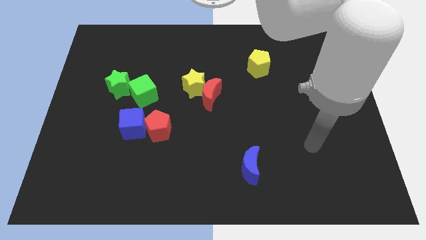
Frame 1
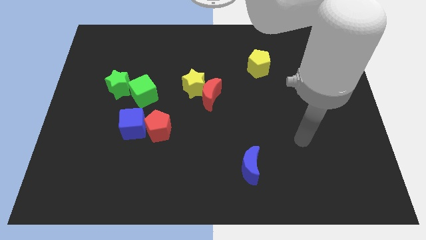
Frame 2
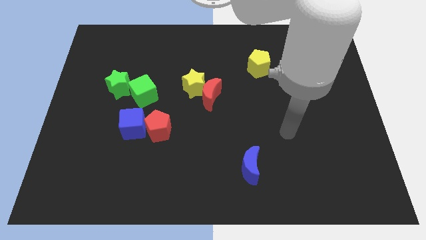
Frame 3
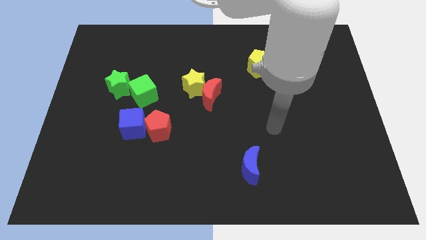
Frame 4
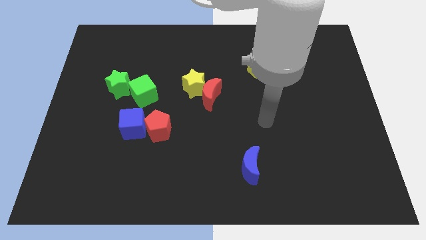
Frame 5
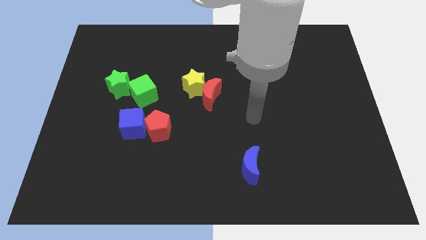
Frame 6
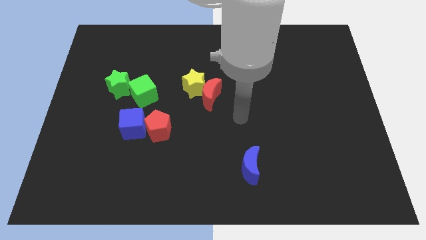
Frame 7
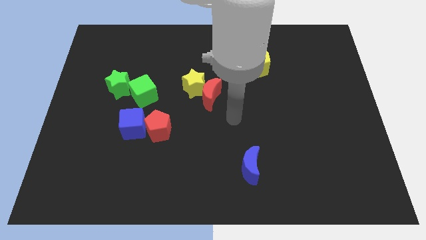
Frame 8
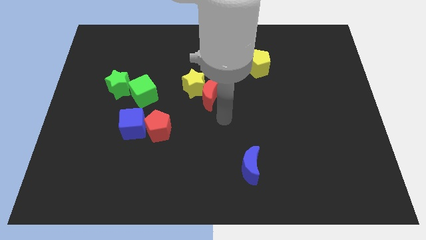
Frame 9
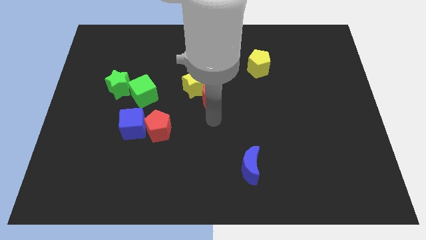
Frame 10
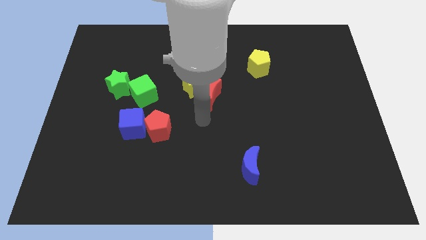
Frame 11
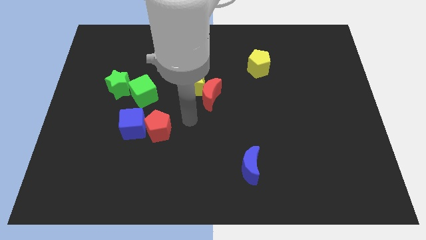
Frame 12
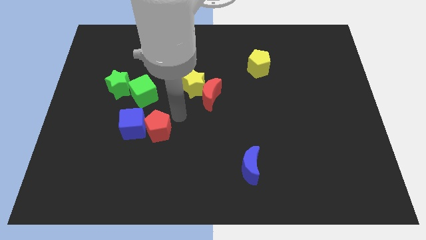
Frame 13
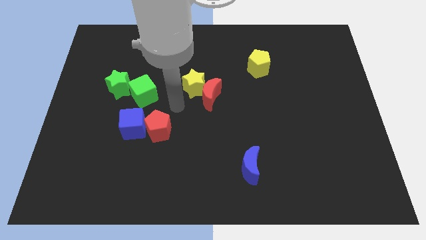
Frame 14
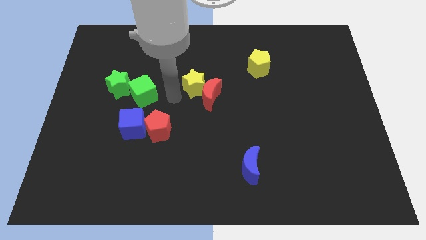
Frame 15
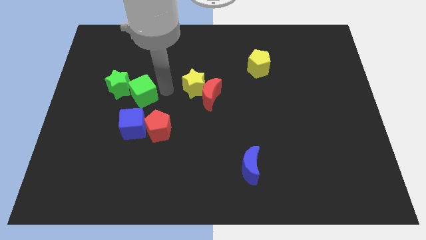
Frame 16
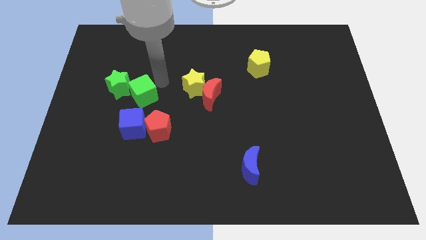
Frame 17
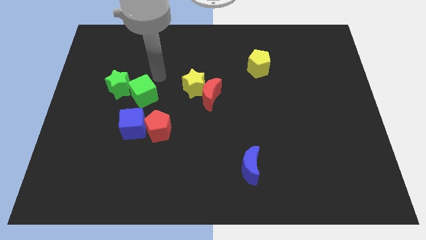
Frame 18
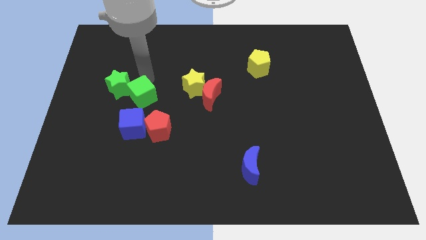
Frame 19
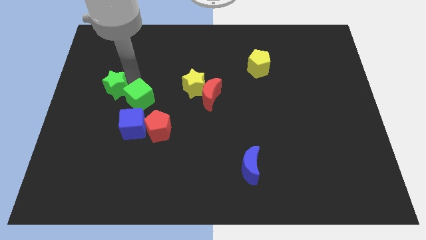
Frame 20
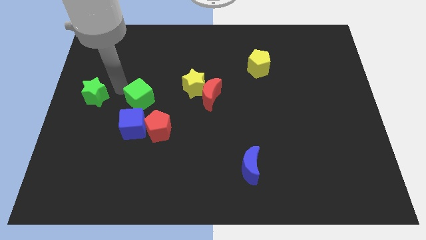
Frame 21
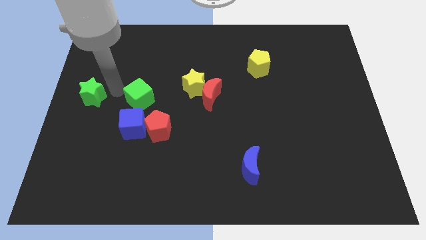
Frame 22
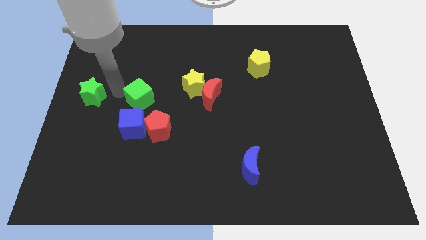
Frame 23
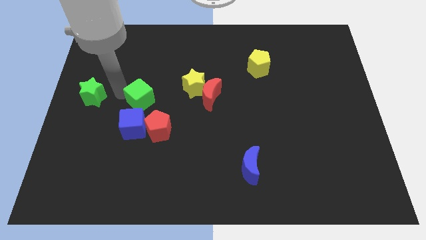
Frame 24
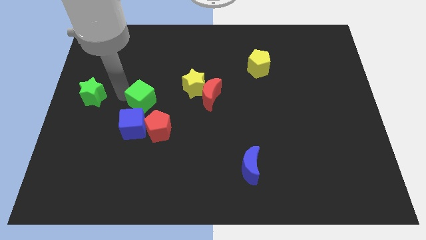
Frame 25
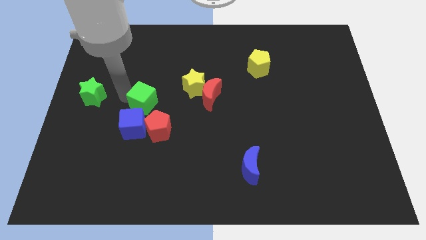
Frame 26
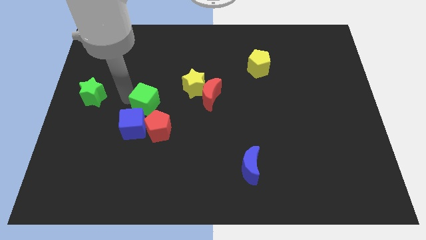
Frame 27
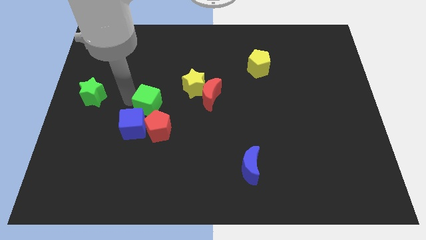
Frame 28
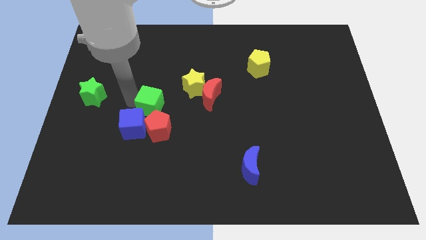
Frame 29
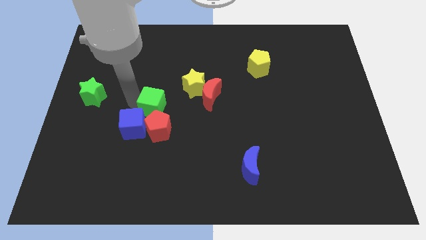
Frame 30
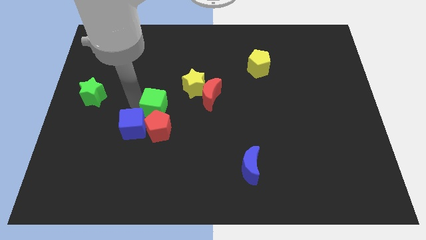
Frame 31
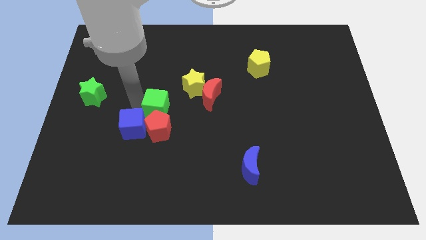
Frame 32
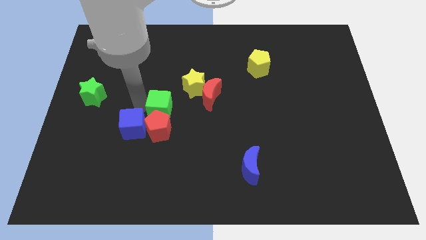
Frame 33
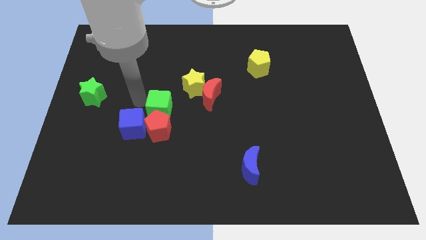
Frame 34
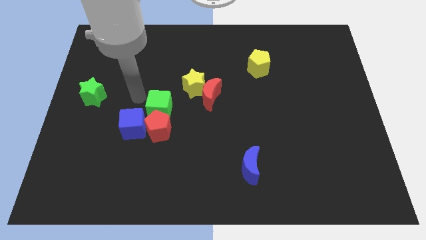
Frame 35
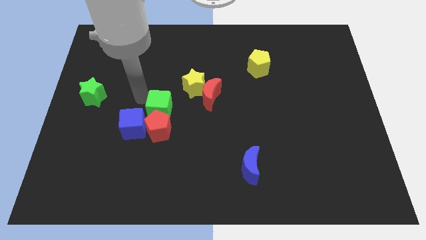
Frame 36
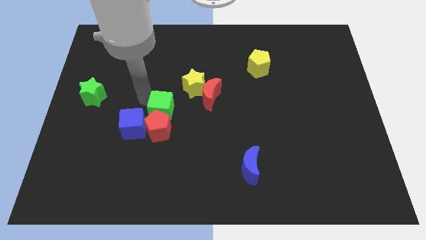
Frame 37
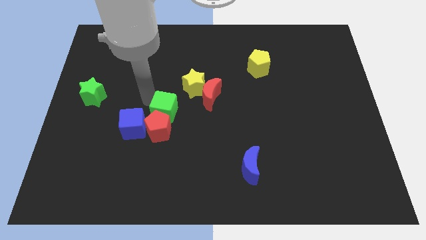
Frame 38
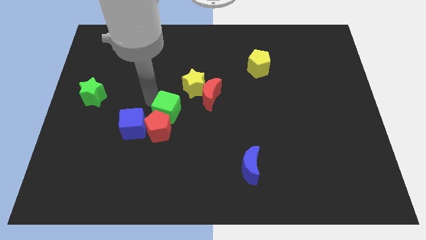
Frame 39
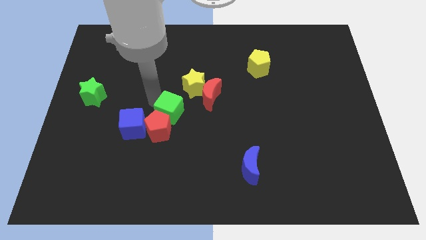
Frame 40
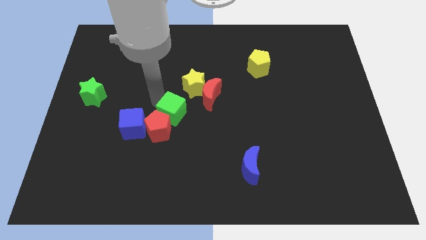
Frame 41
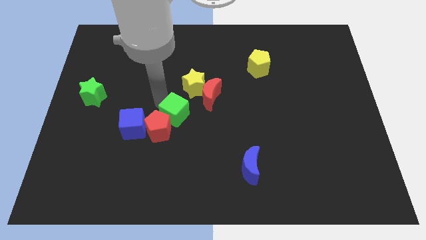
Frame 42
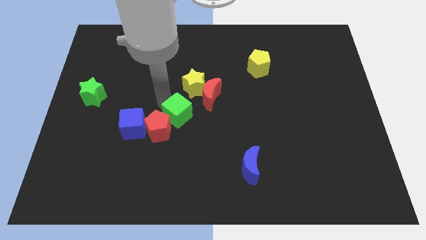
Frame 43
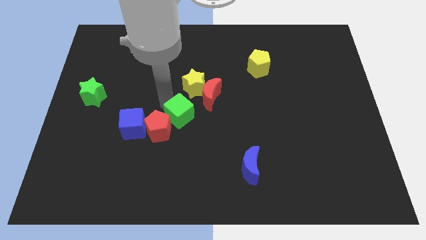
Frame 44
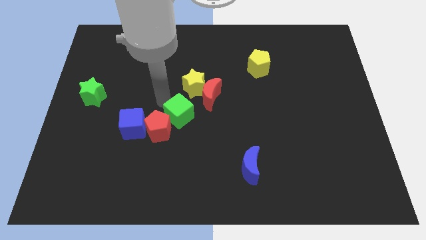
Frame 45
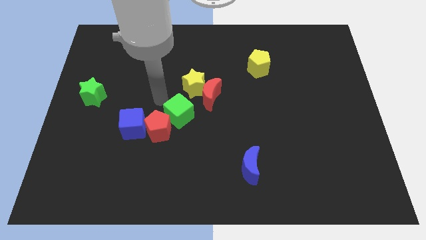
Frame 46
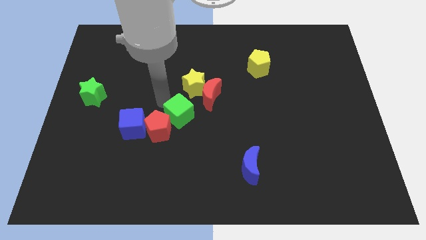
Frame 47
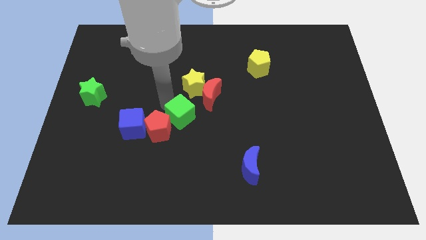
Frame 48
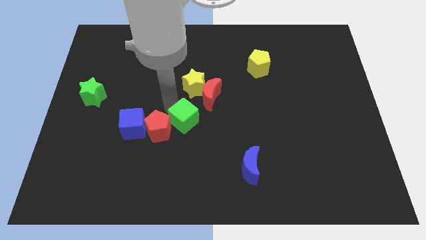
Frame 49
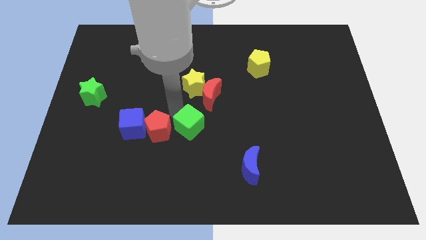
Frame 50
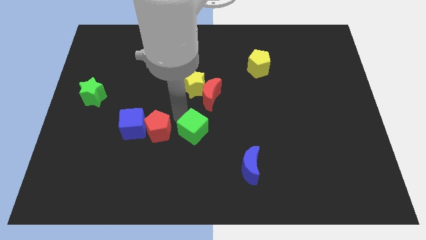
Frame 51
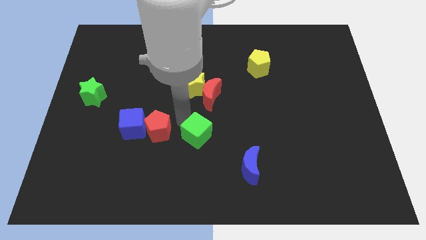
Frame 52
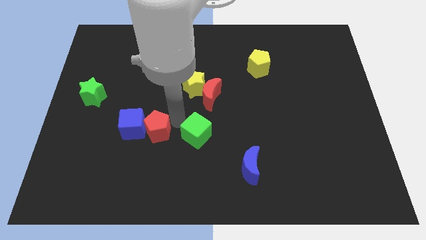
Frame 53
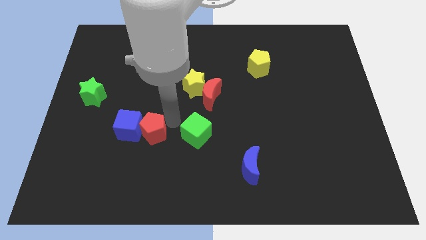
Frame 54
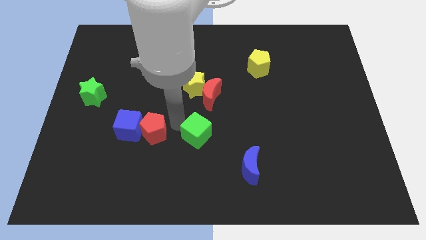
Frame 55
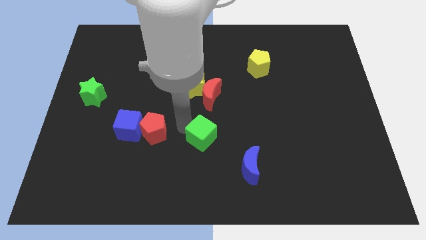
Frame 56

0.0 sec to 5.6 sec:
put the green cube to the top left side of the blue moon

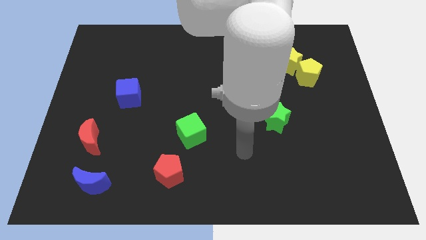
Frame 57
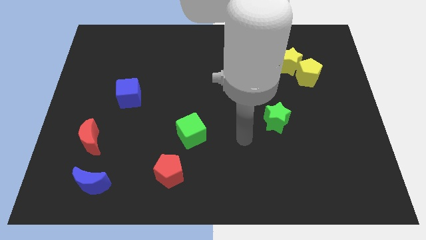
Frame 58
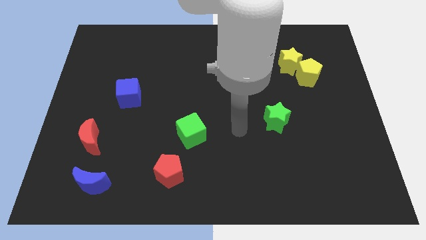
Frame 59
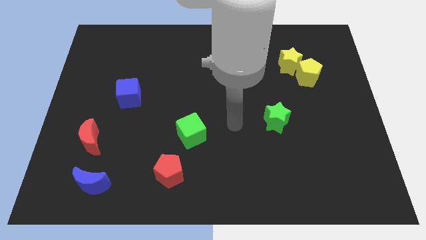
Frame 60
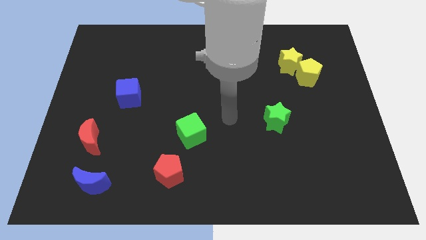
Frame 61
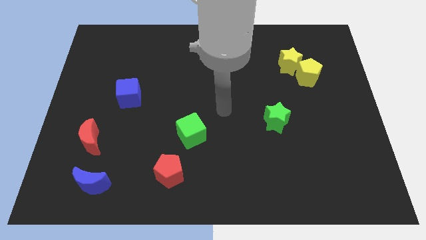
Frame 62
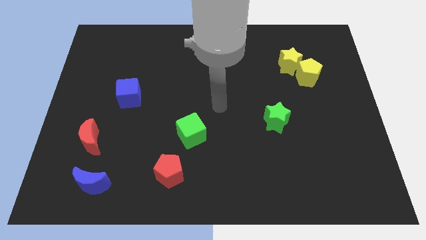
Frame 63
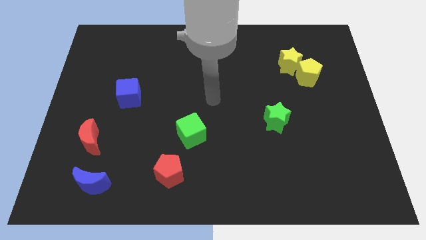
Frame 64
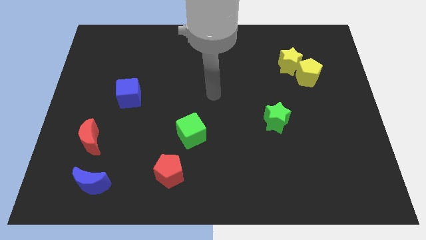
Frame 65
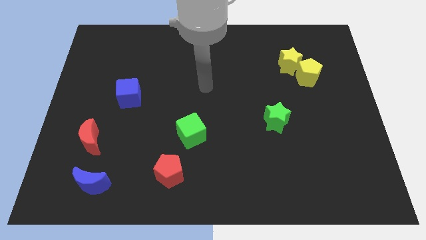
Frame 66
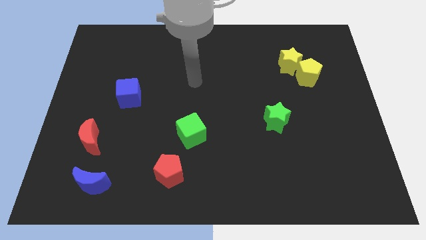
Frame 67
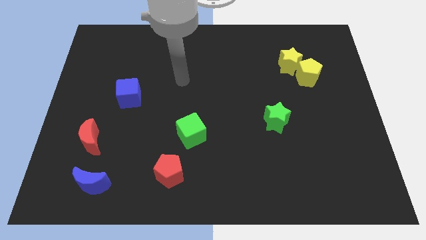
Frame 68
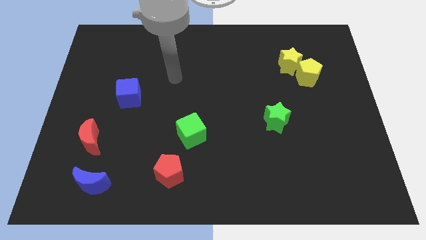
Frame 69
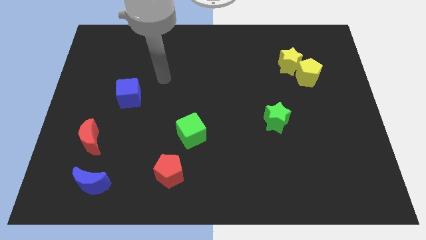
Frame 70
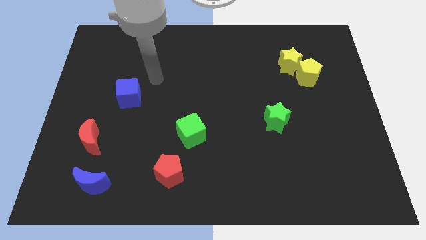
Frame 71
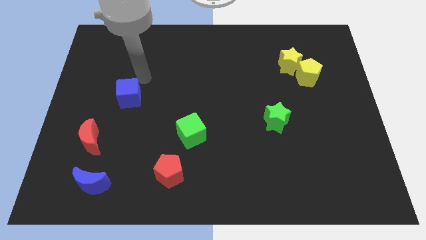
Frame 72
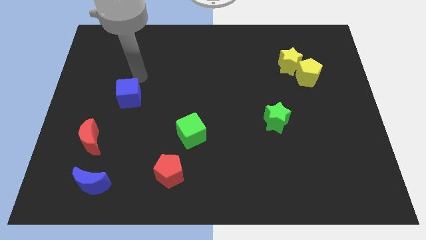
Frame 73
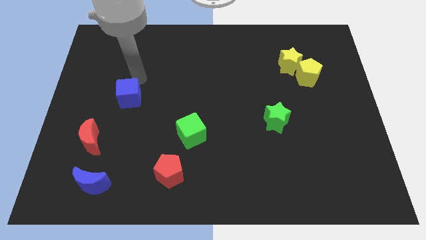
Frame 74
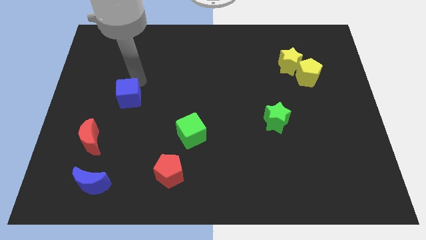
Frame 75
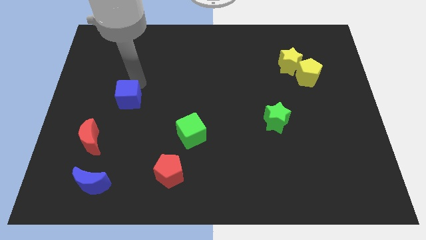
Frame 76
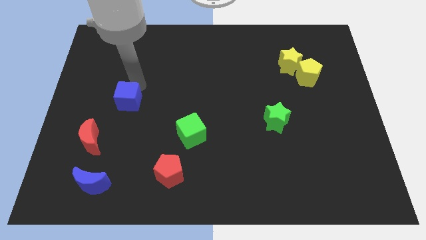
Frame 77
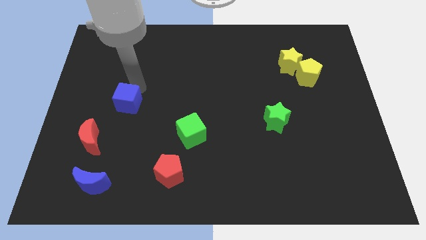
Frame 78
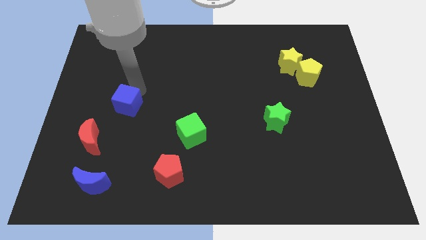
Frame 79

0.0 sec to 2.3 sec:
slide the blue cube diagonally up and to the right of the red moon

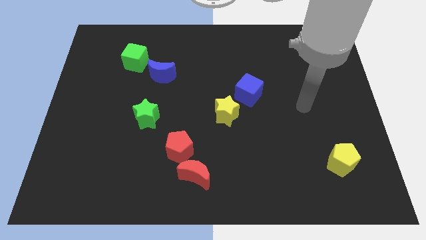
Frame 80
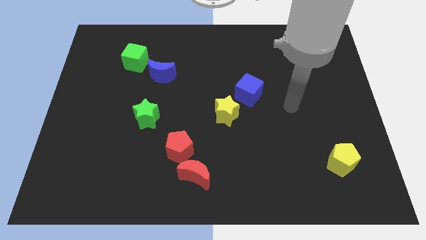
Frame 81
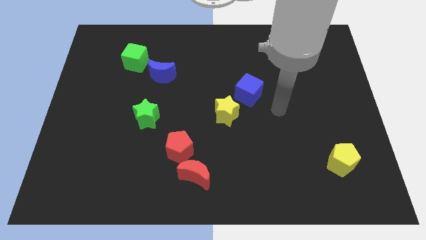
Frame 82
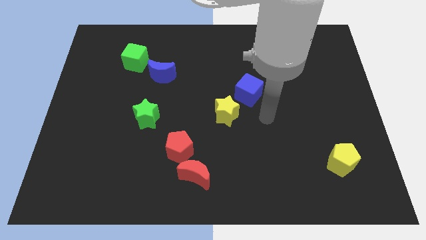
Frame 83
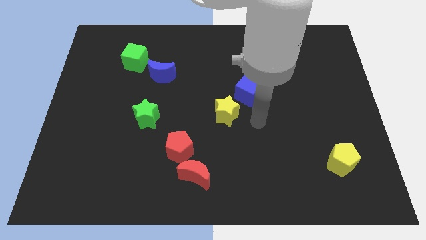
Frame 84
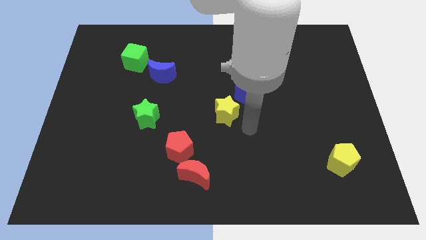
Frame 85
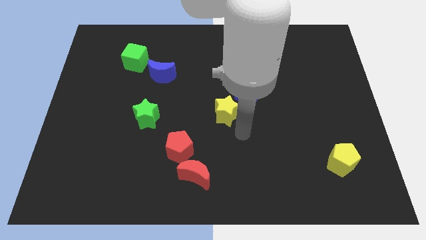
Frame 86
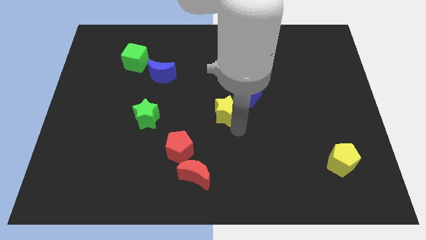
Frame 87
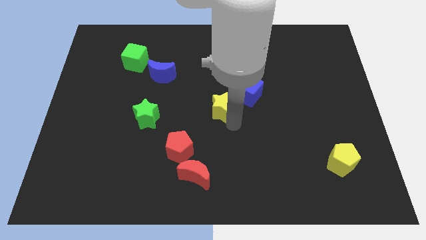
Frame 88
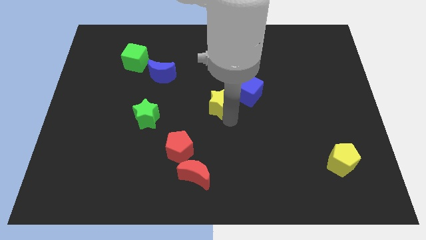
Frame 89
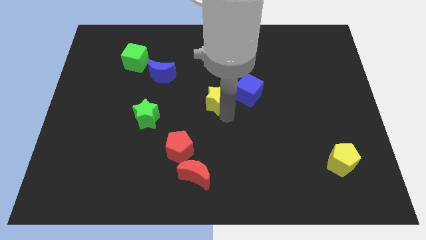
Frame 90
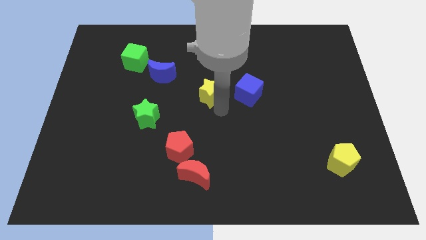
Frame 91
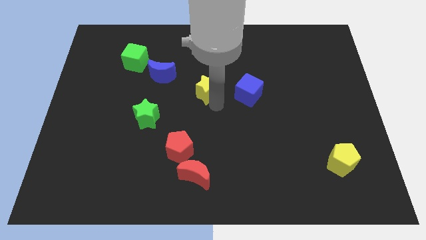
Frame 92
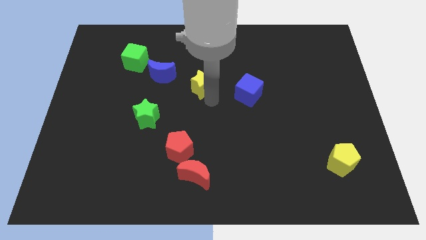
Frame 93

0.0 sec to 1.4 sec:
move the yellow star to the right of the blue moon
